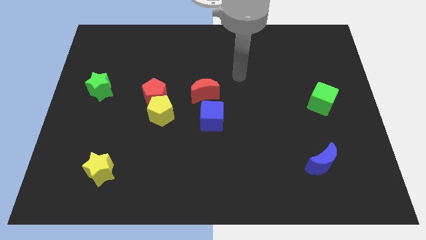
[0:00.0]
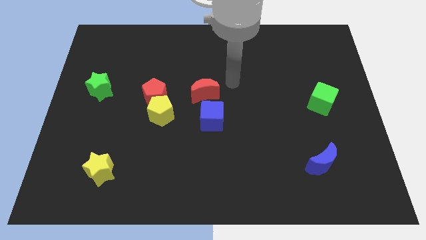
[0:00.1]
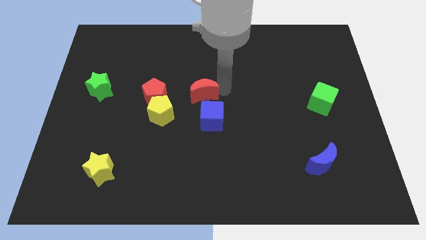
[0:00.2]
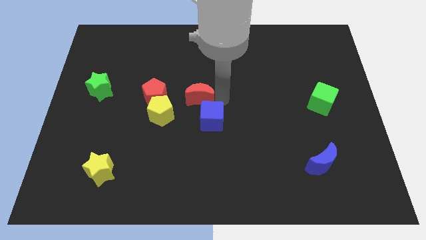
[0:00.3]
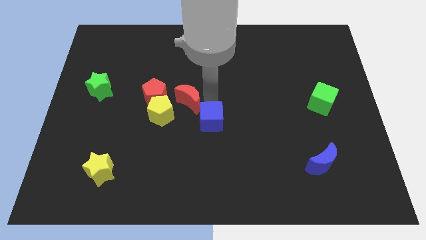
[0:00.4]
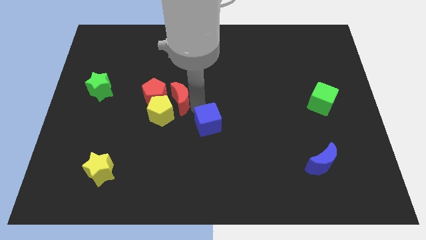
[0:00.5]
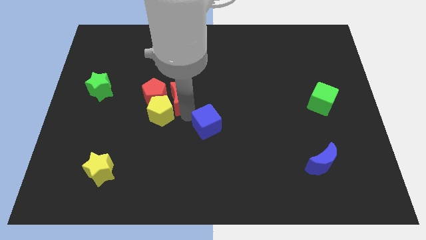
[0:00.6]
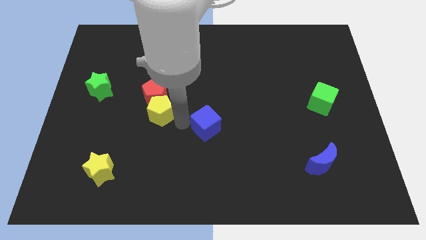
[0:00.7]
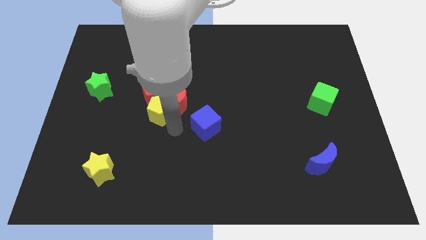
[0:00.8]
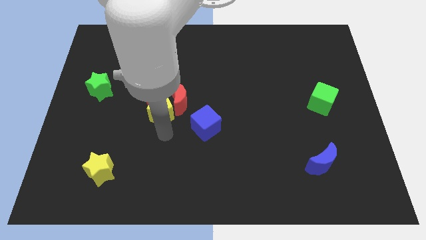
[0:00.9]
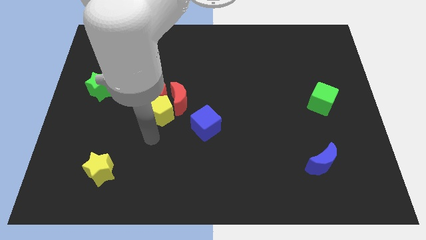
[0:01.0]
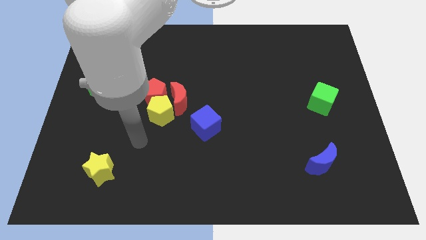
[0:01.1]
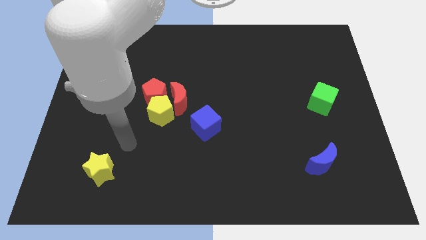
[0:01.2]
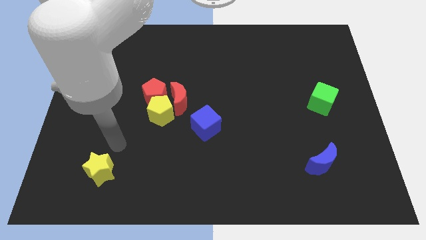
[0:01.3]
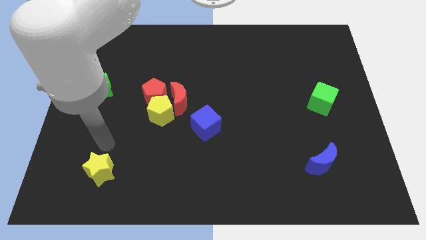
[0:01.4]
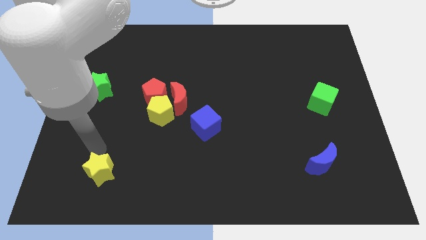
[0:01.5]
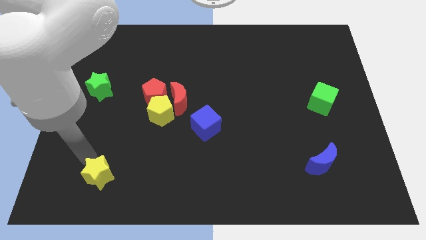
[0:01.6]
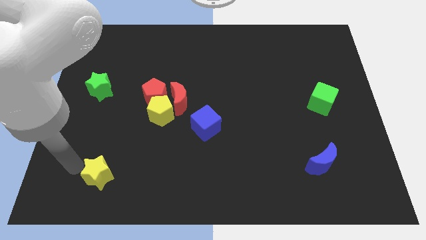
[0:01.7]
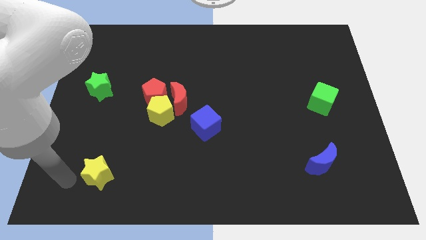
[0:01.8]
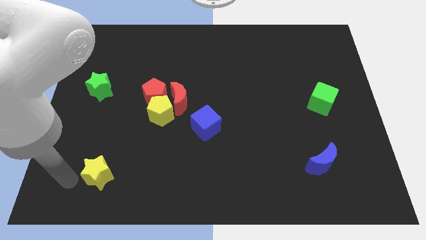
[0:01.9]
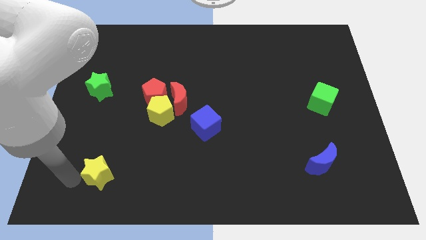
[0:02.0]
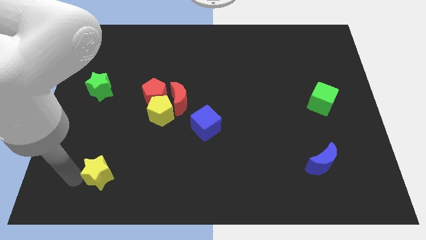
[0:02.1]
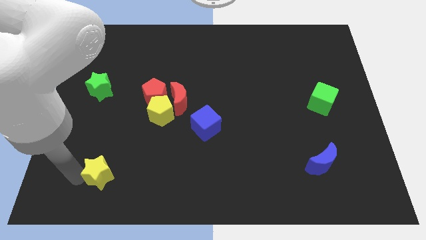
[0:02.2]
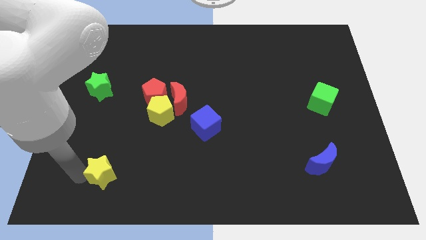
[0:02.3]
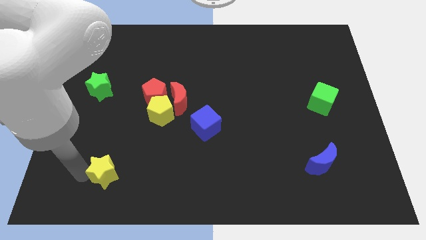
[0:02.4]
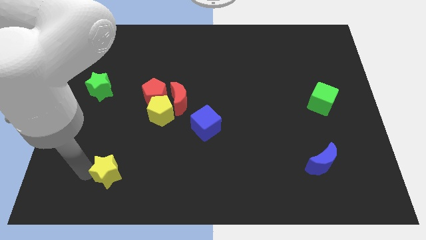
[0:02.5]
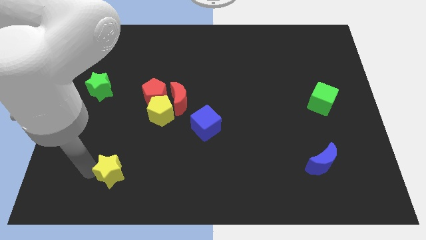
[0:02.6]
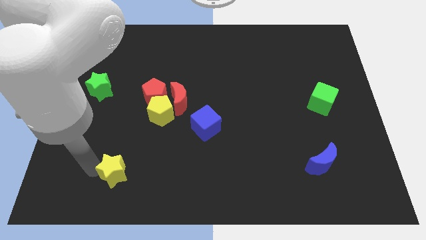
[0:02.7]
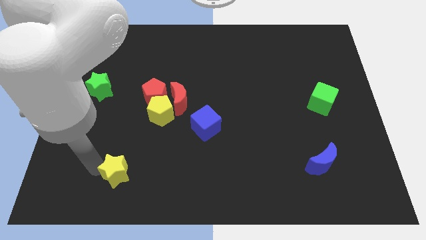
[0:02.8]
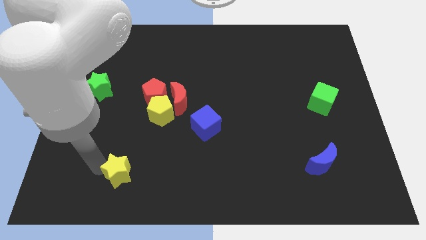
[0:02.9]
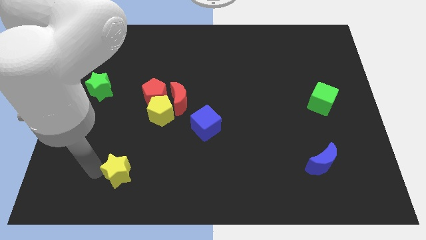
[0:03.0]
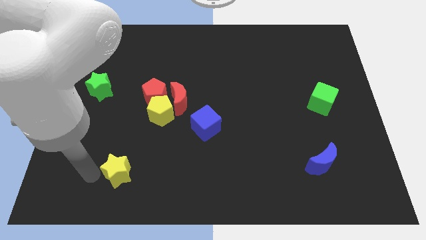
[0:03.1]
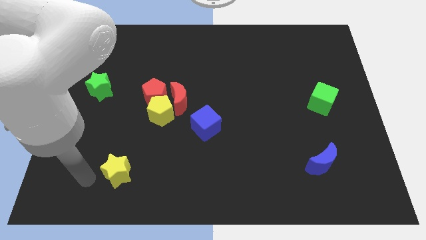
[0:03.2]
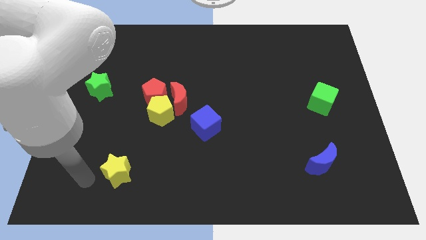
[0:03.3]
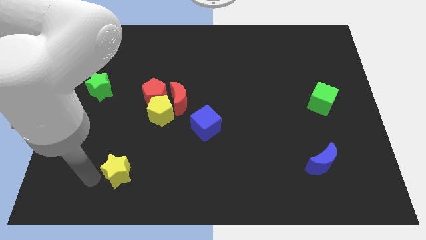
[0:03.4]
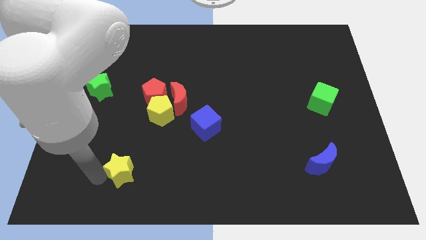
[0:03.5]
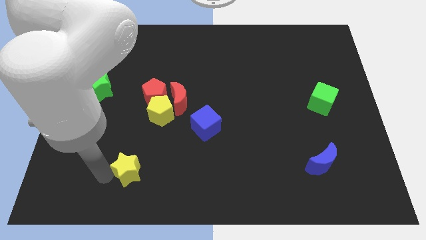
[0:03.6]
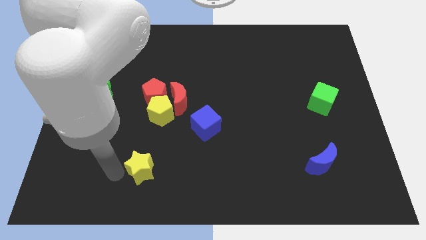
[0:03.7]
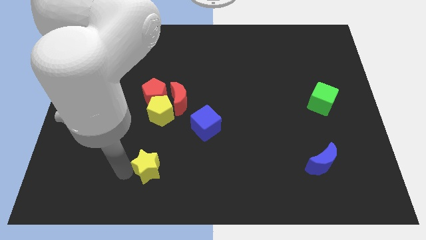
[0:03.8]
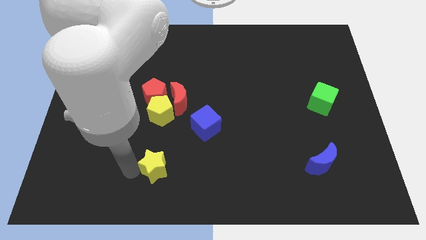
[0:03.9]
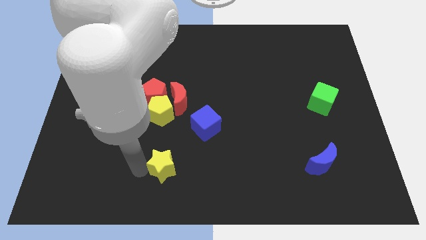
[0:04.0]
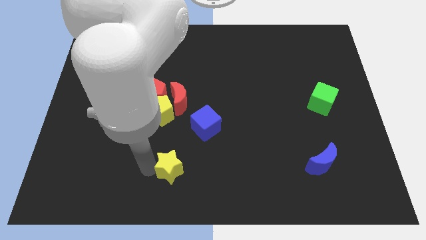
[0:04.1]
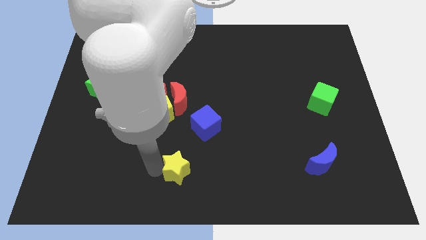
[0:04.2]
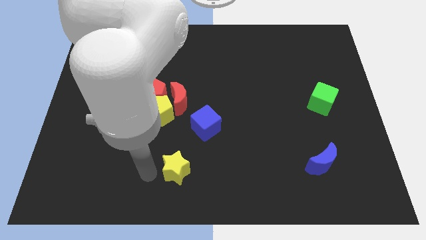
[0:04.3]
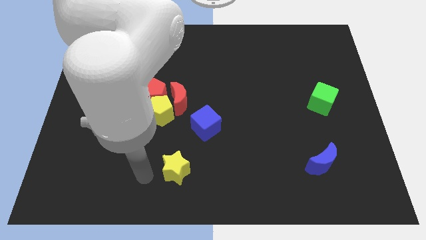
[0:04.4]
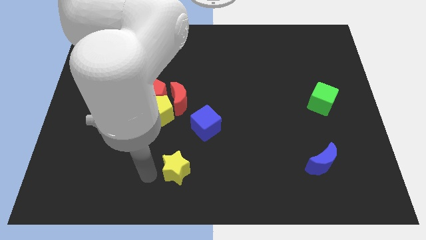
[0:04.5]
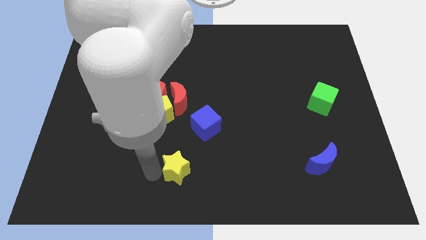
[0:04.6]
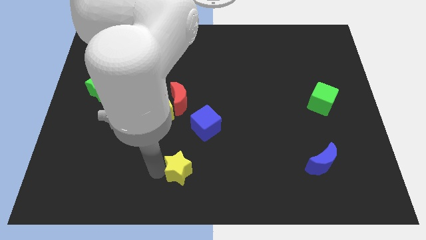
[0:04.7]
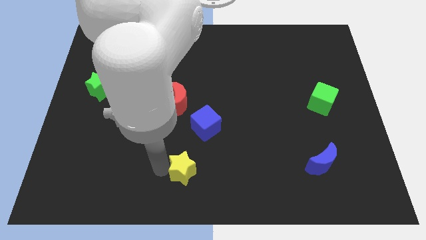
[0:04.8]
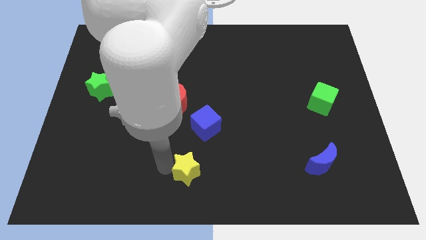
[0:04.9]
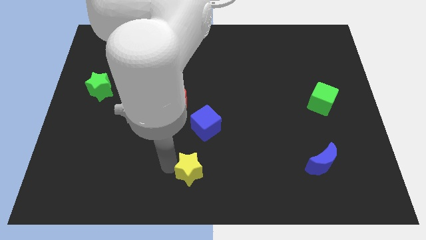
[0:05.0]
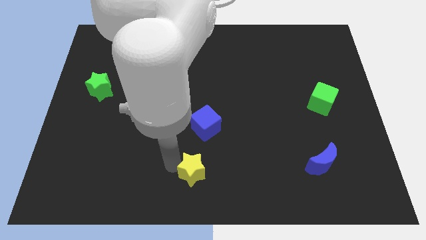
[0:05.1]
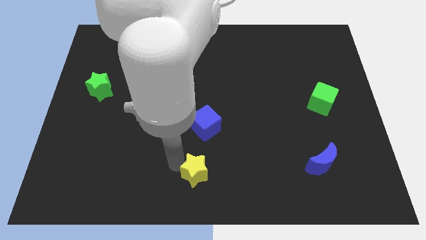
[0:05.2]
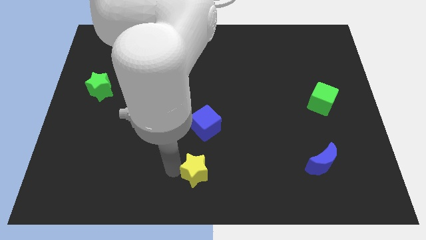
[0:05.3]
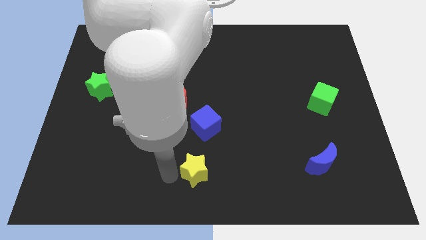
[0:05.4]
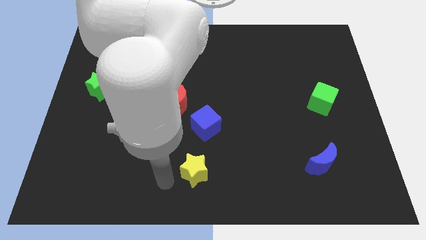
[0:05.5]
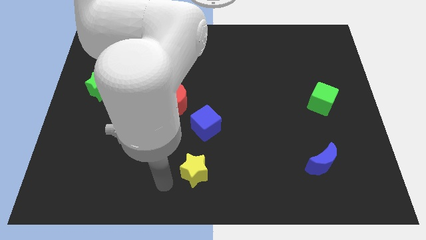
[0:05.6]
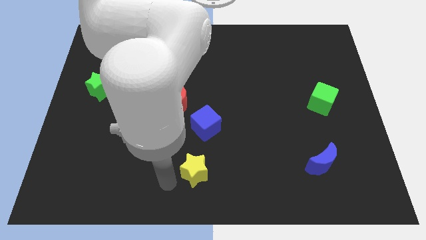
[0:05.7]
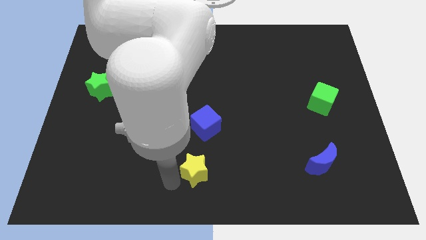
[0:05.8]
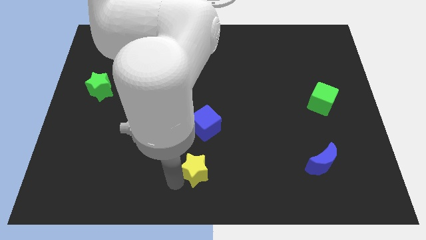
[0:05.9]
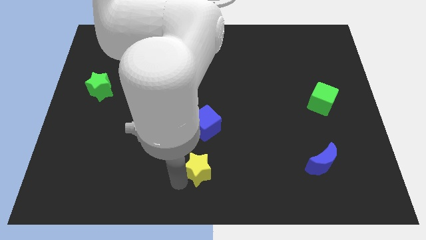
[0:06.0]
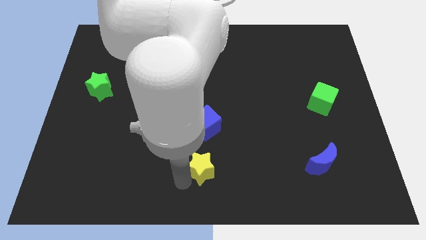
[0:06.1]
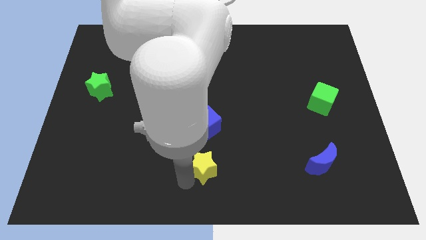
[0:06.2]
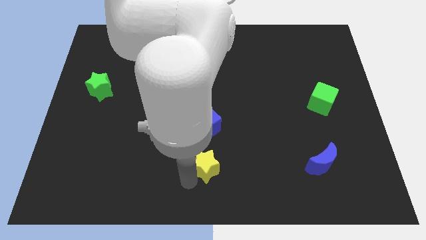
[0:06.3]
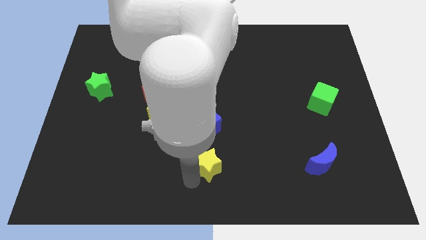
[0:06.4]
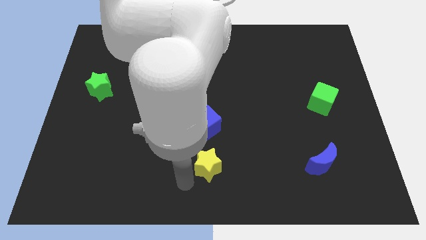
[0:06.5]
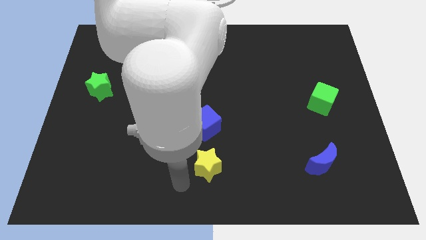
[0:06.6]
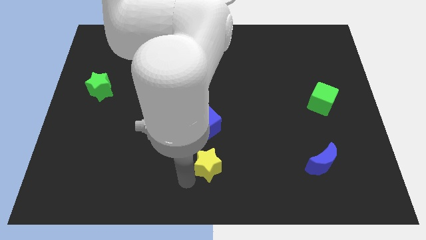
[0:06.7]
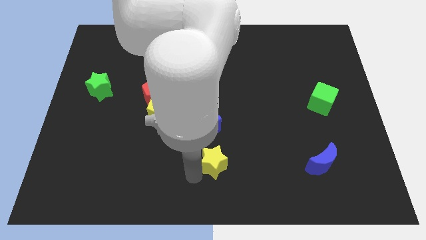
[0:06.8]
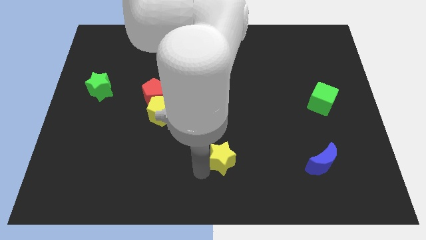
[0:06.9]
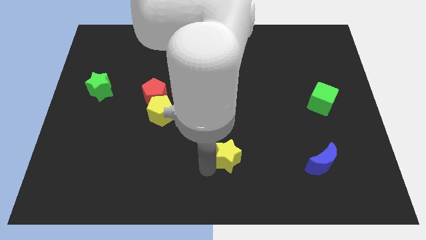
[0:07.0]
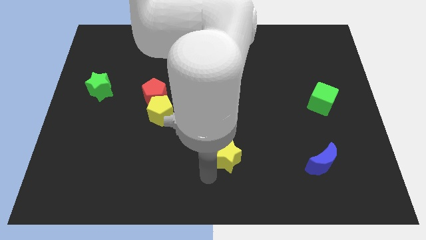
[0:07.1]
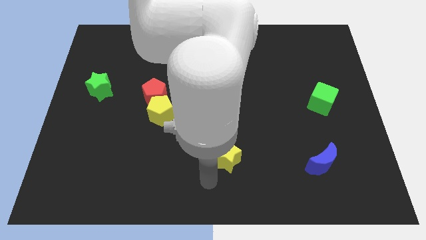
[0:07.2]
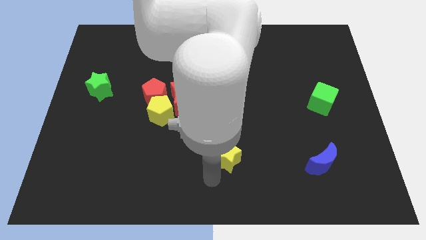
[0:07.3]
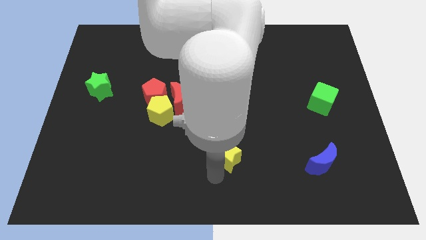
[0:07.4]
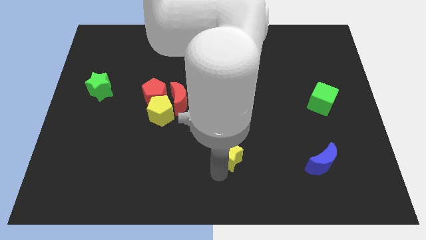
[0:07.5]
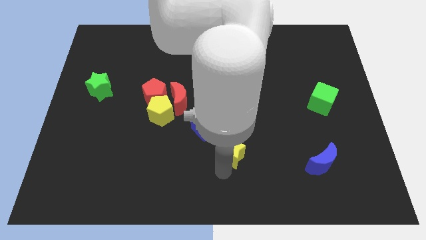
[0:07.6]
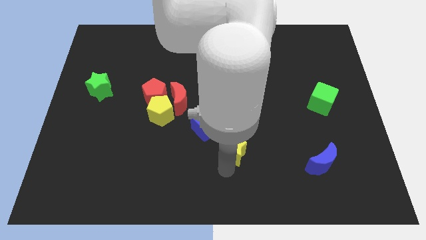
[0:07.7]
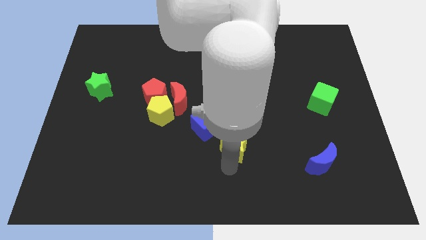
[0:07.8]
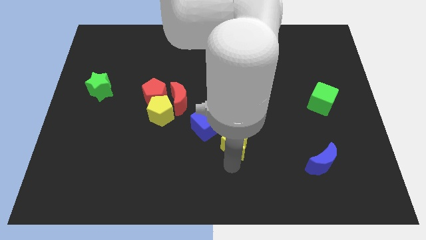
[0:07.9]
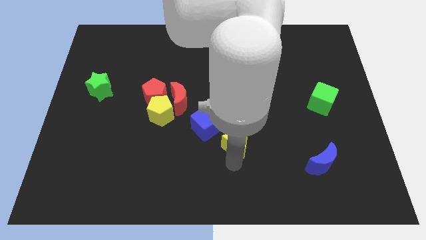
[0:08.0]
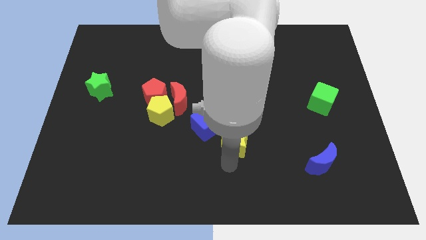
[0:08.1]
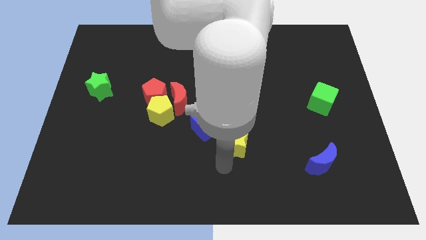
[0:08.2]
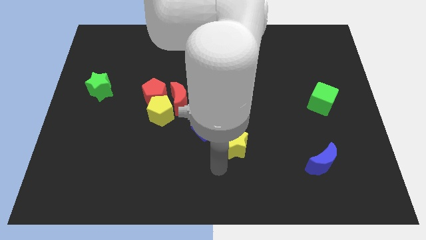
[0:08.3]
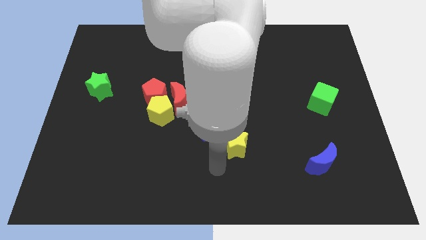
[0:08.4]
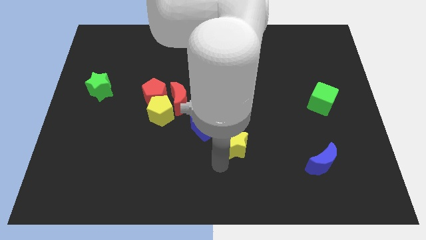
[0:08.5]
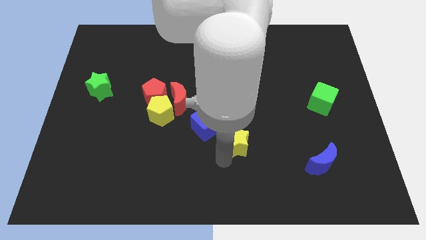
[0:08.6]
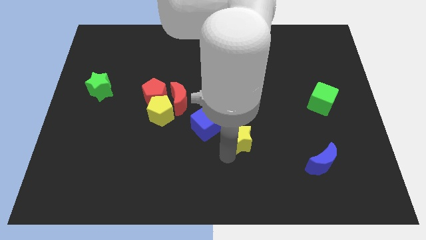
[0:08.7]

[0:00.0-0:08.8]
push the yellow star to the right side of the blue cube
